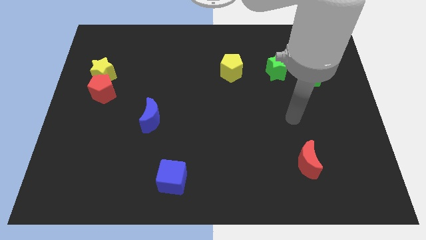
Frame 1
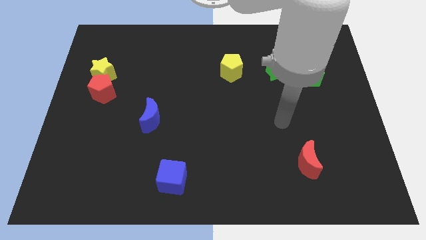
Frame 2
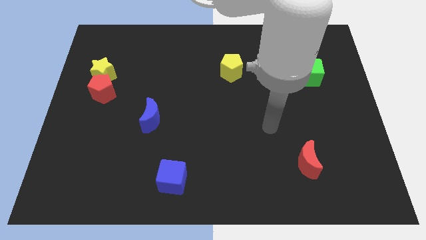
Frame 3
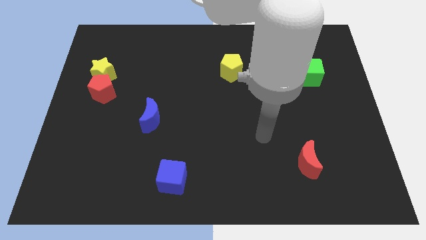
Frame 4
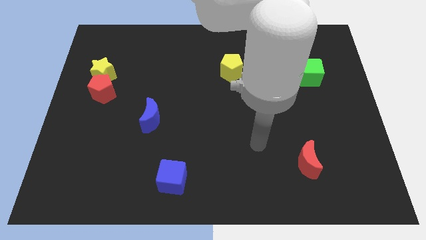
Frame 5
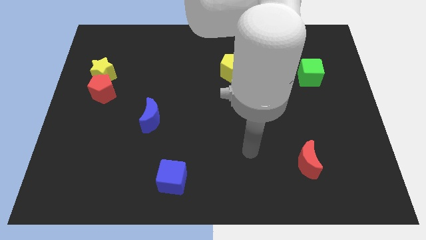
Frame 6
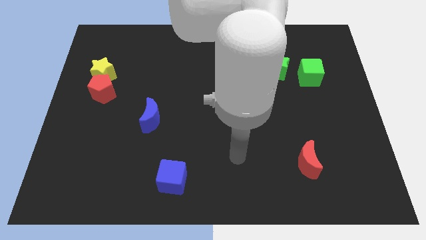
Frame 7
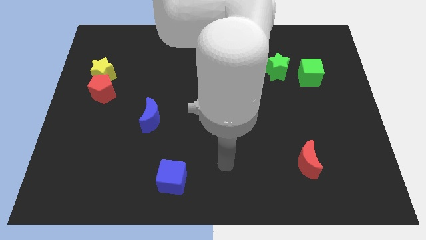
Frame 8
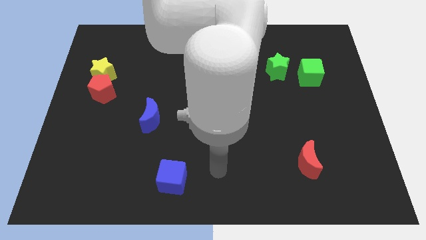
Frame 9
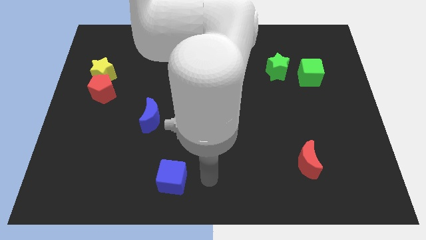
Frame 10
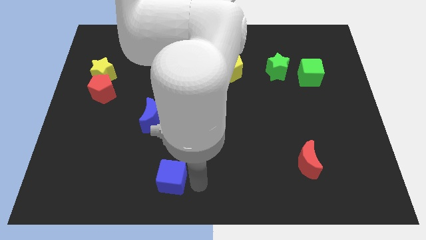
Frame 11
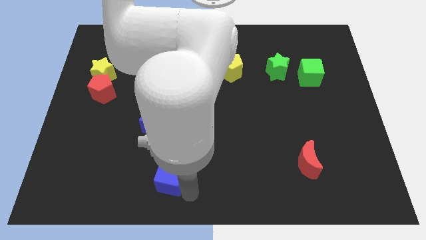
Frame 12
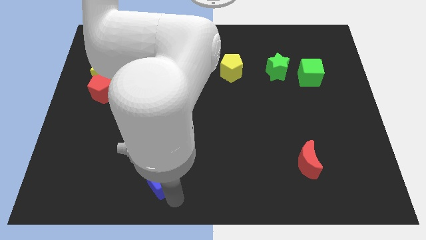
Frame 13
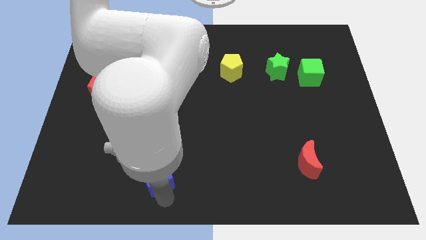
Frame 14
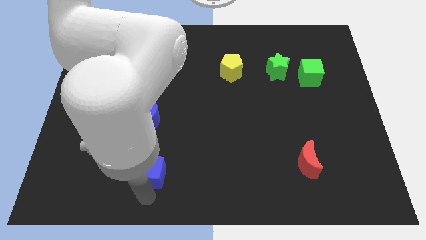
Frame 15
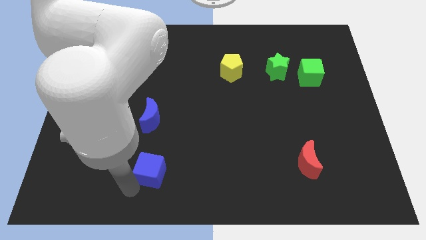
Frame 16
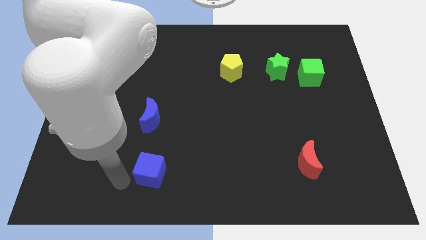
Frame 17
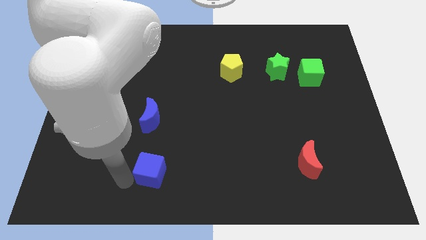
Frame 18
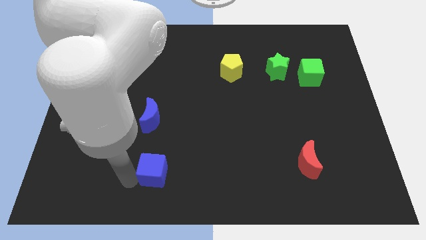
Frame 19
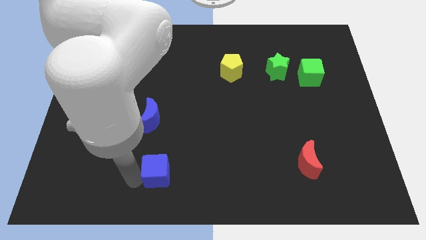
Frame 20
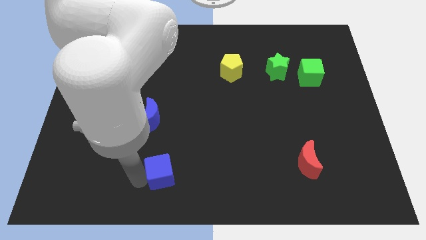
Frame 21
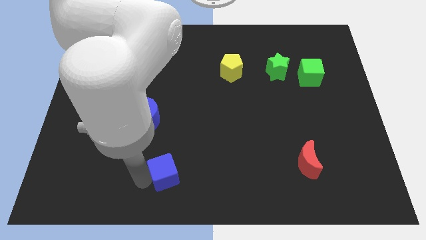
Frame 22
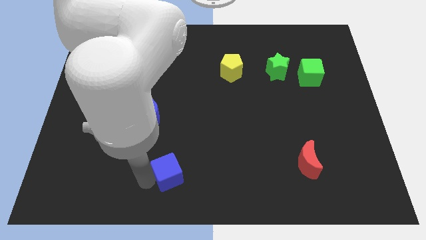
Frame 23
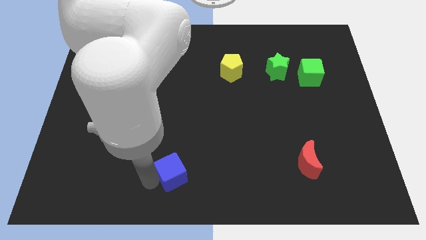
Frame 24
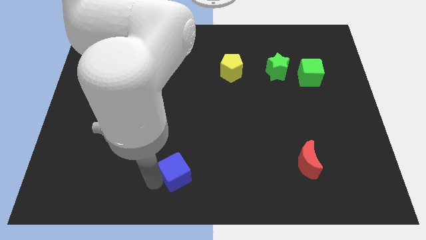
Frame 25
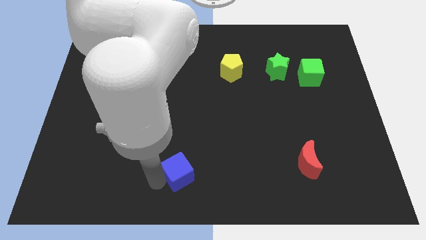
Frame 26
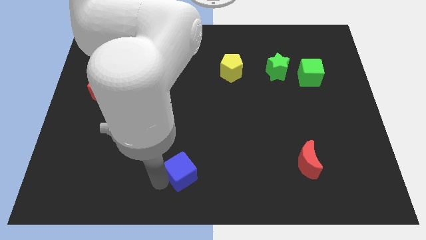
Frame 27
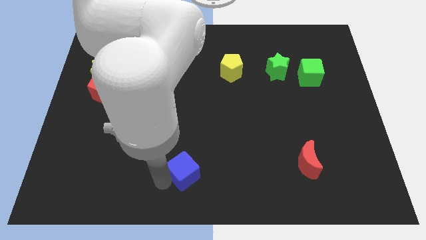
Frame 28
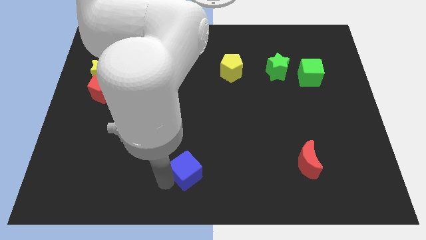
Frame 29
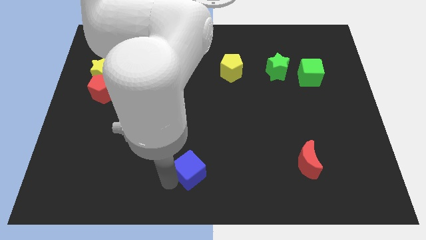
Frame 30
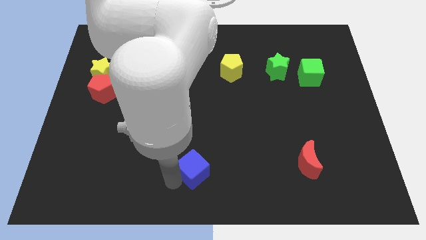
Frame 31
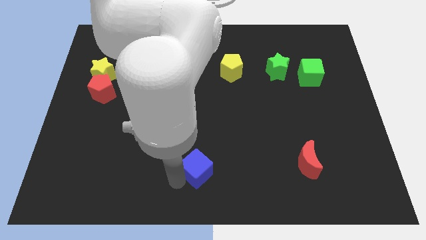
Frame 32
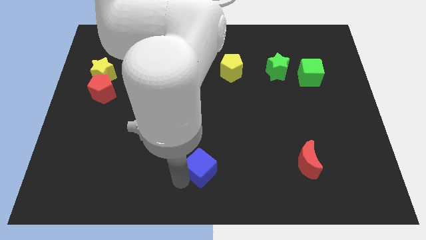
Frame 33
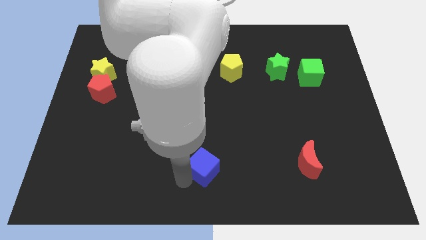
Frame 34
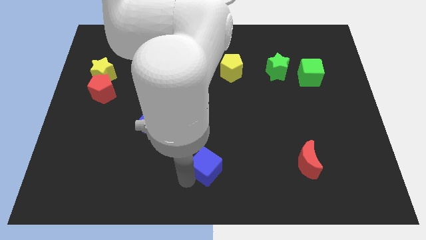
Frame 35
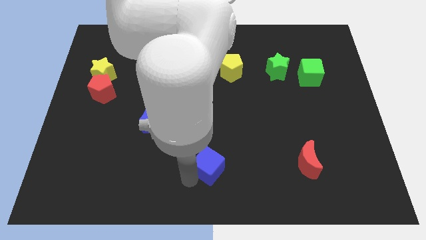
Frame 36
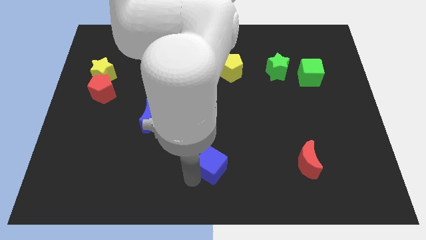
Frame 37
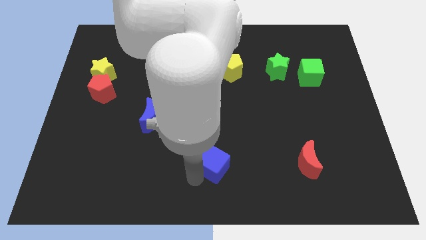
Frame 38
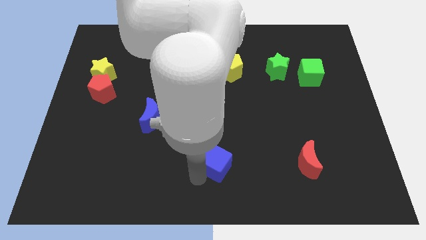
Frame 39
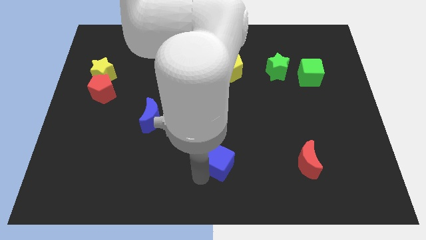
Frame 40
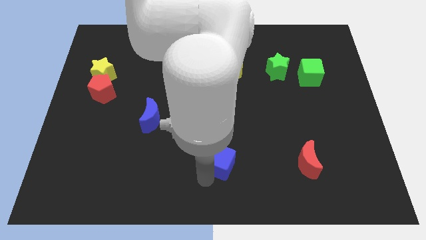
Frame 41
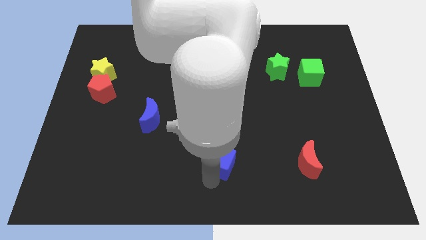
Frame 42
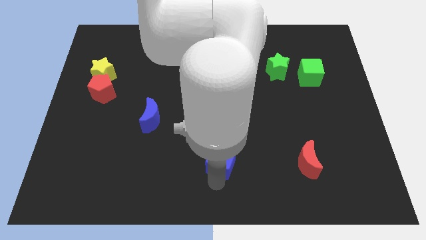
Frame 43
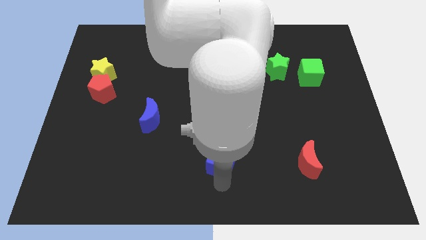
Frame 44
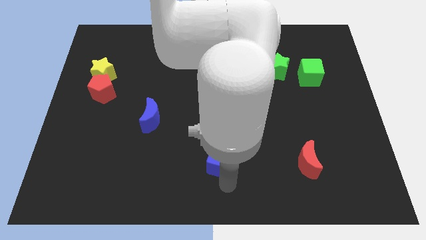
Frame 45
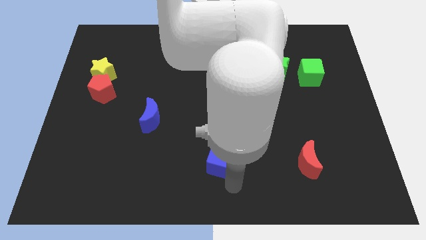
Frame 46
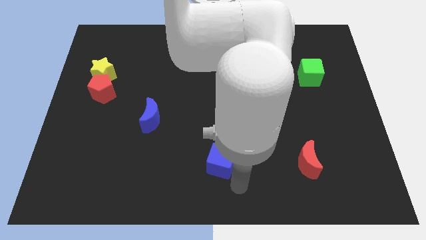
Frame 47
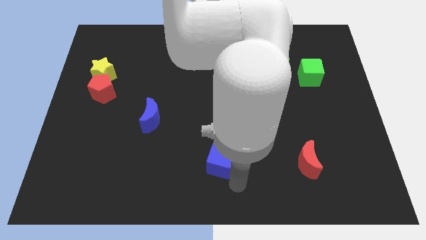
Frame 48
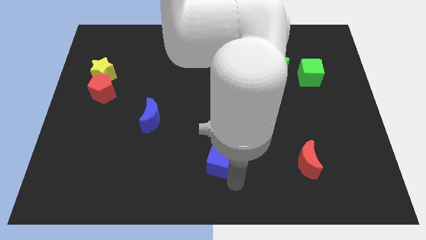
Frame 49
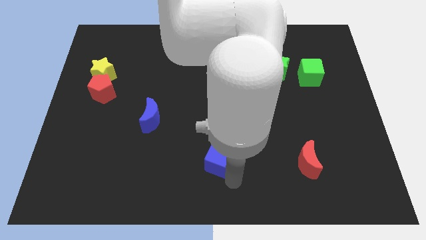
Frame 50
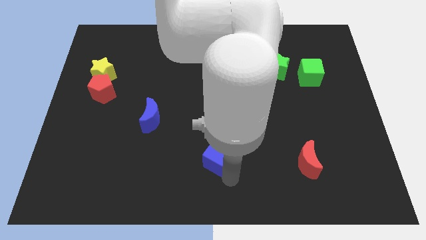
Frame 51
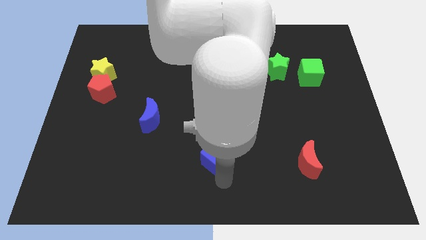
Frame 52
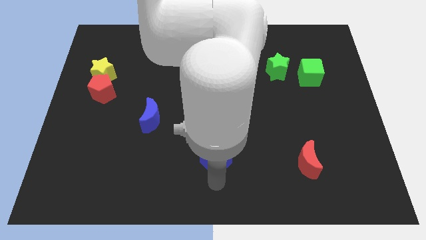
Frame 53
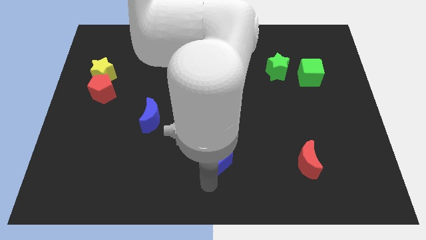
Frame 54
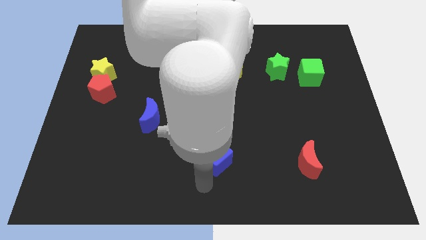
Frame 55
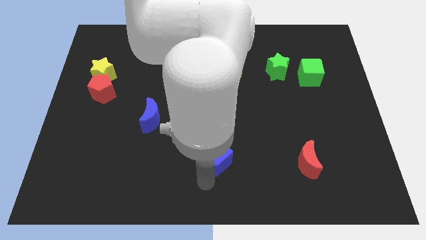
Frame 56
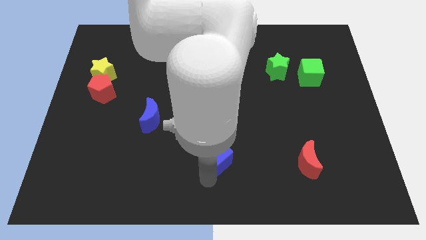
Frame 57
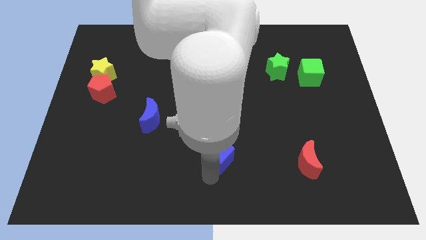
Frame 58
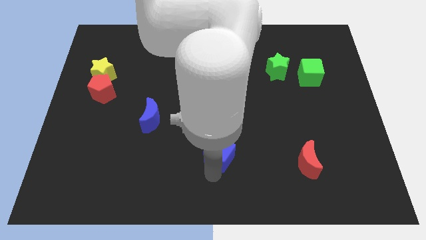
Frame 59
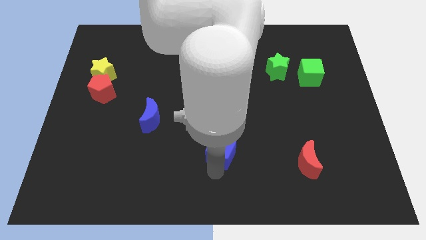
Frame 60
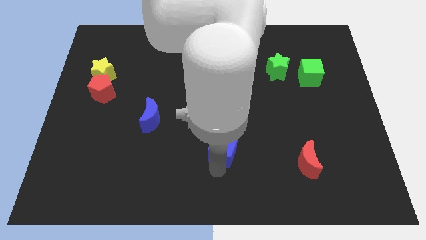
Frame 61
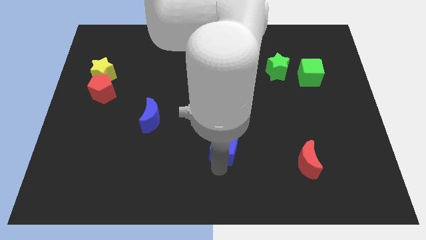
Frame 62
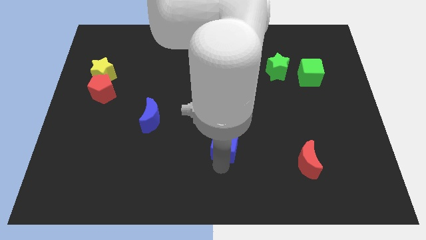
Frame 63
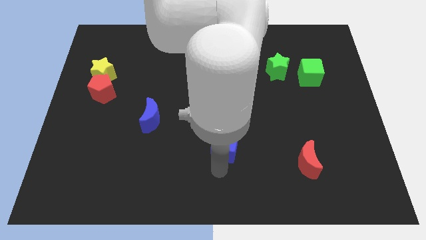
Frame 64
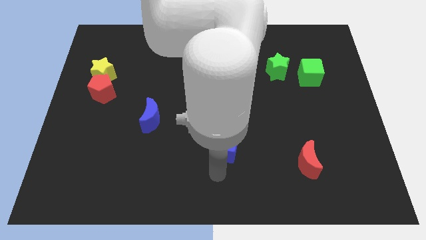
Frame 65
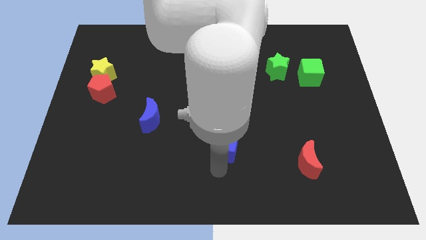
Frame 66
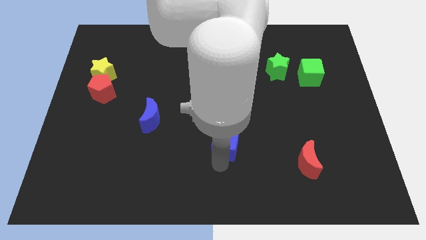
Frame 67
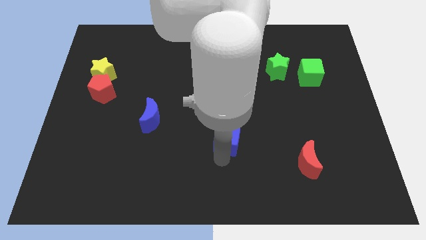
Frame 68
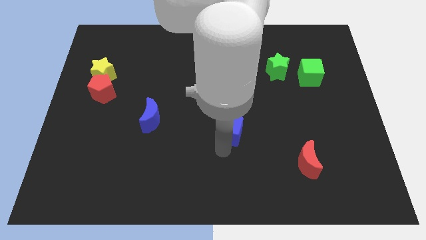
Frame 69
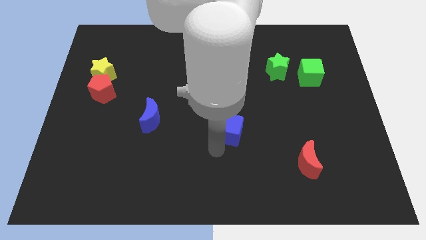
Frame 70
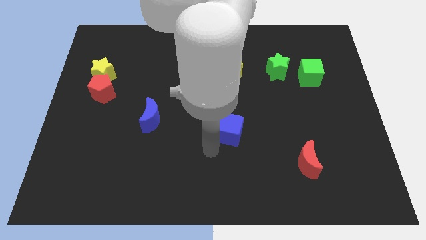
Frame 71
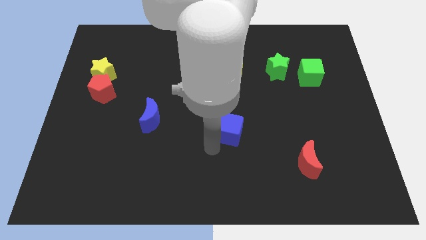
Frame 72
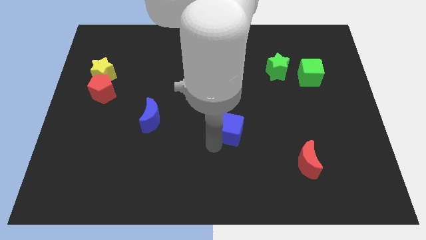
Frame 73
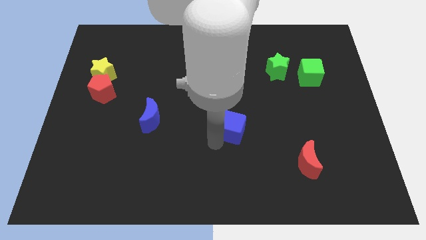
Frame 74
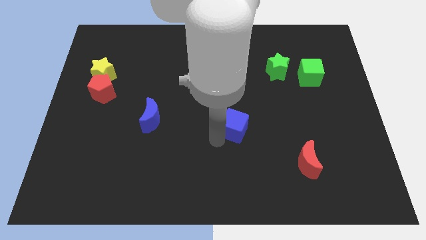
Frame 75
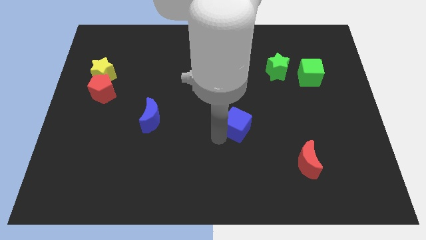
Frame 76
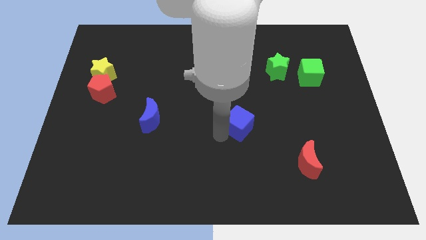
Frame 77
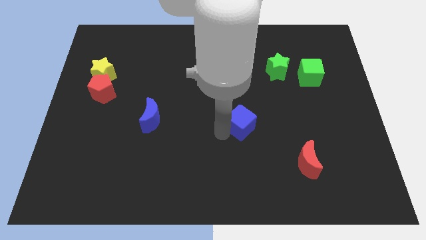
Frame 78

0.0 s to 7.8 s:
move the blue cube diagonally up and to the right

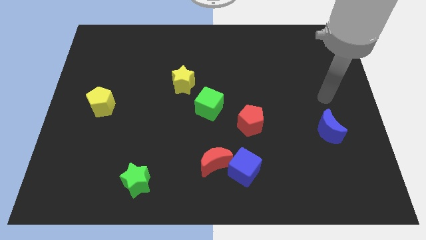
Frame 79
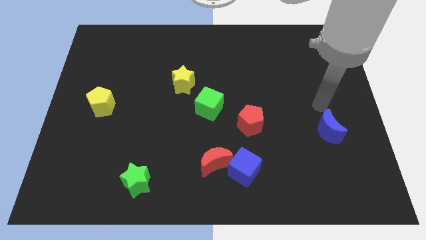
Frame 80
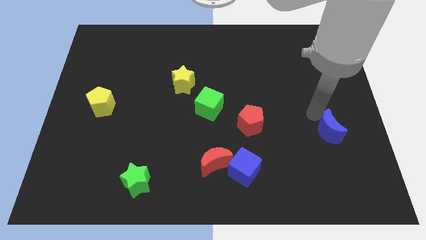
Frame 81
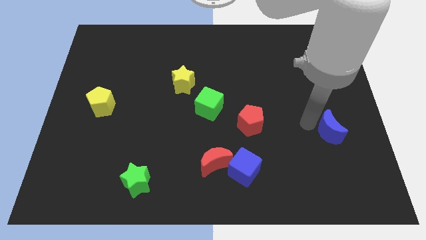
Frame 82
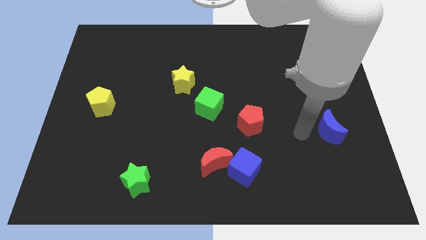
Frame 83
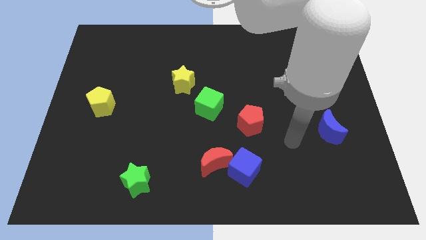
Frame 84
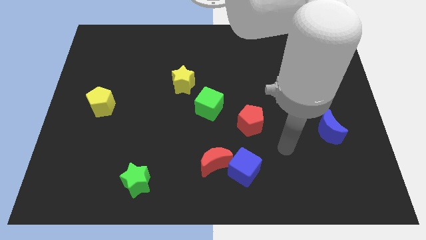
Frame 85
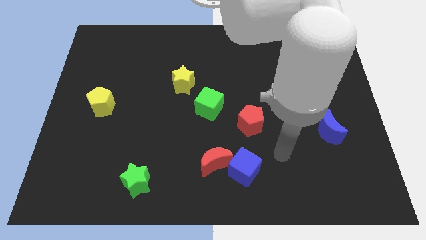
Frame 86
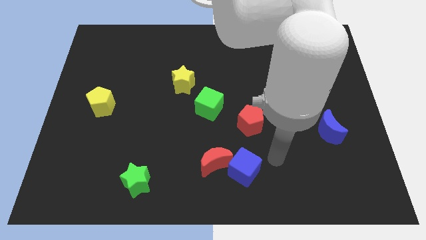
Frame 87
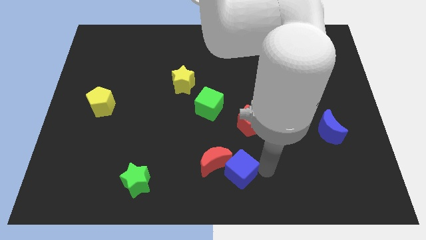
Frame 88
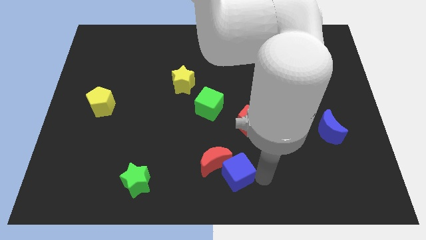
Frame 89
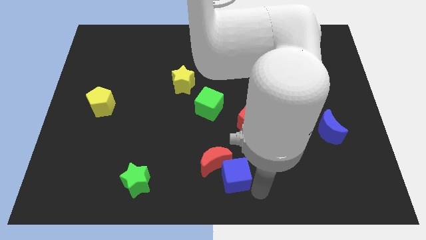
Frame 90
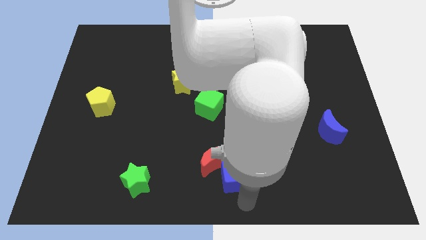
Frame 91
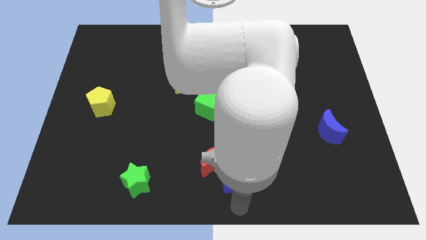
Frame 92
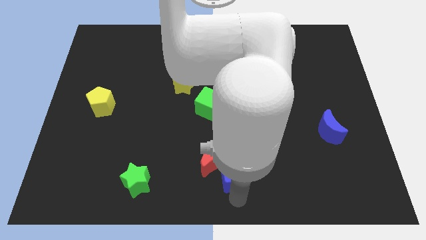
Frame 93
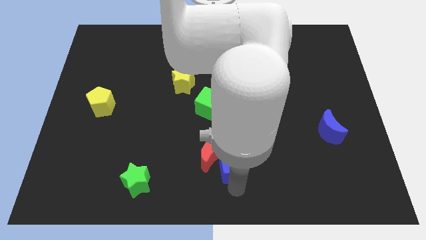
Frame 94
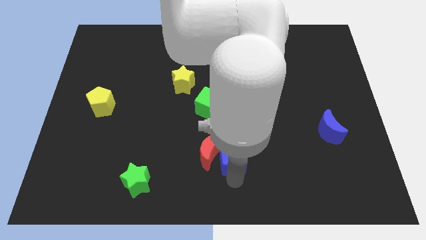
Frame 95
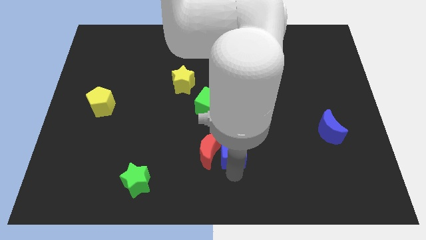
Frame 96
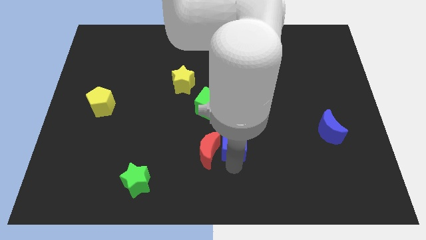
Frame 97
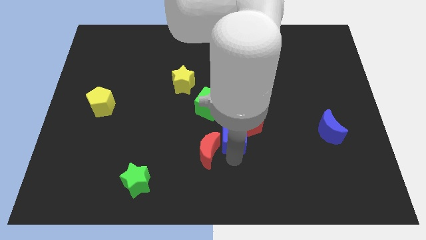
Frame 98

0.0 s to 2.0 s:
slightly slide the blue cube up
